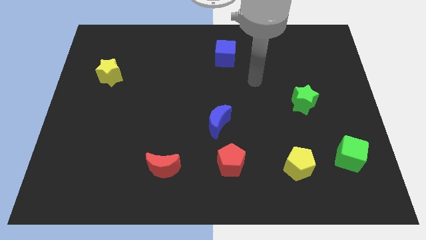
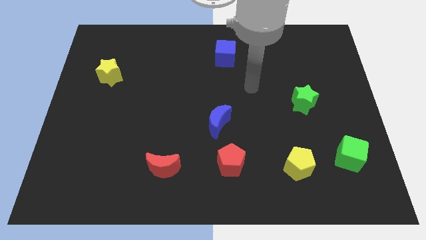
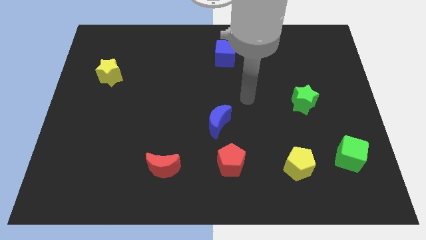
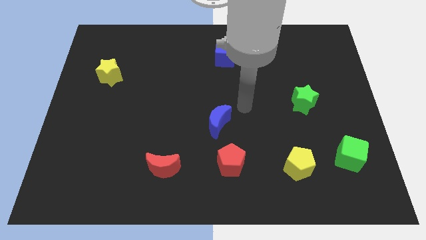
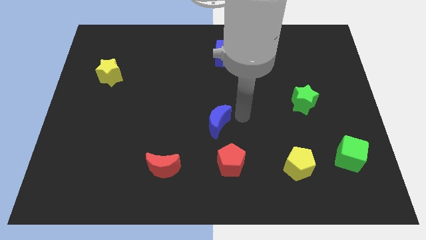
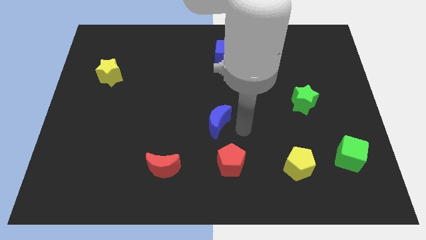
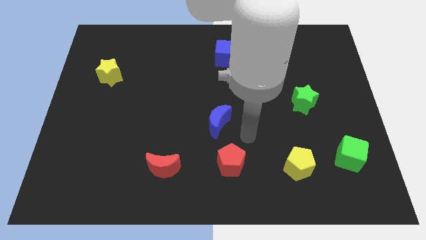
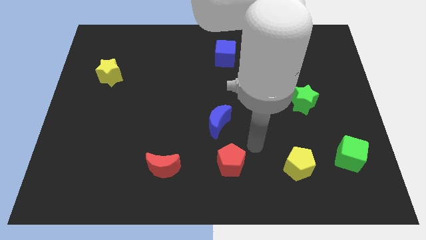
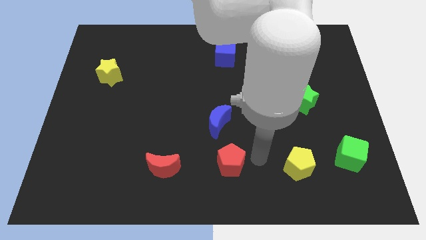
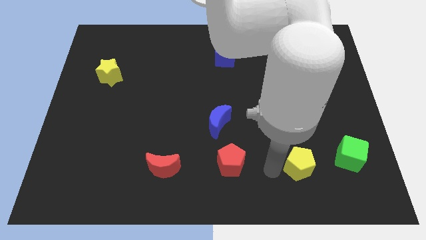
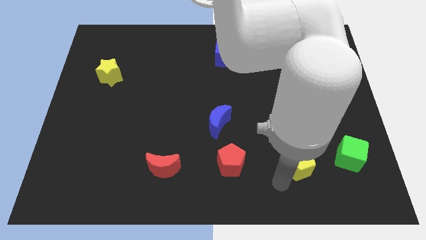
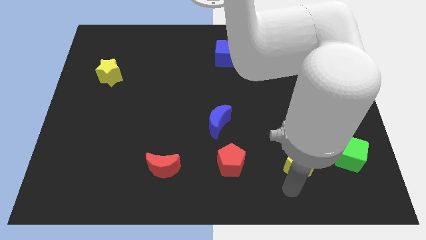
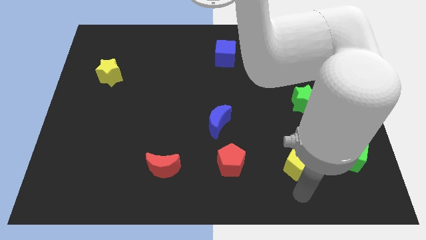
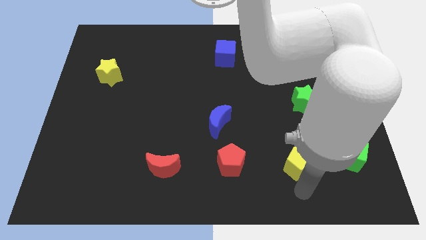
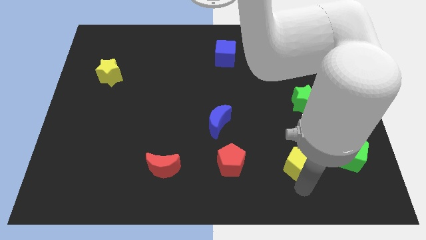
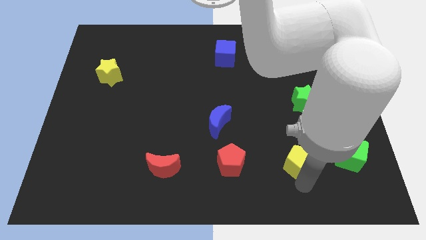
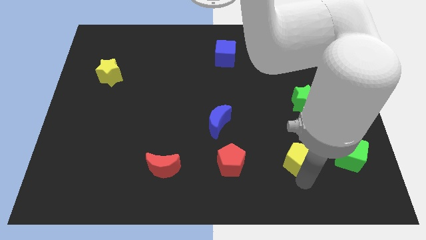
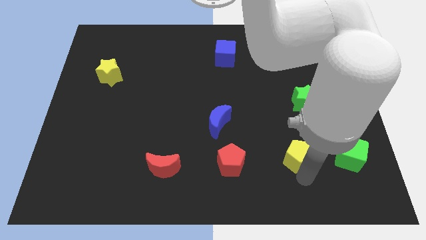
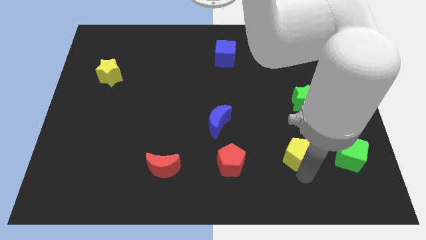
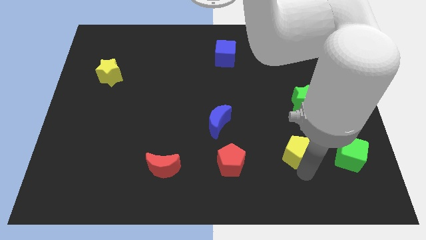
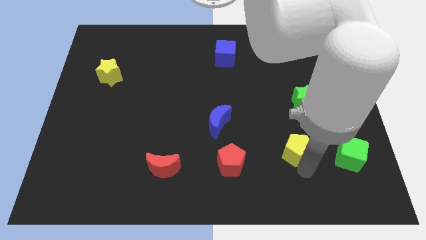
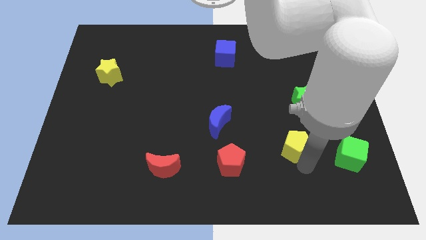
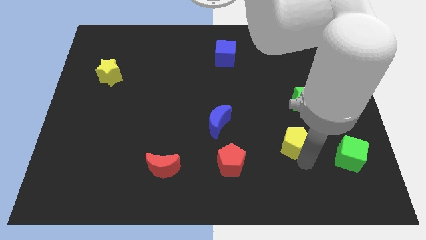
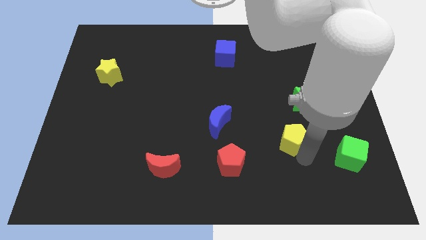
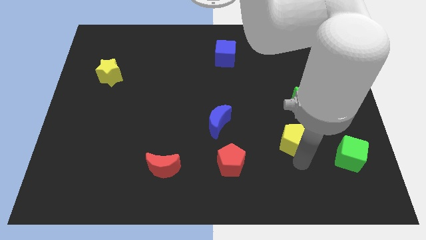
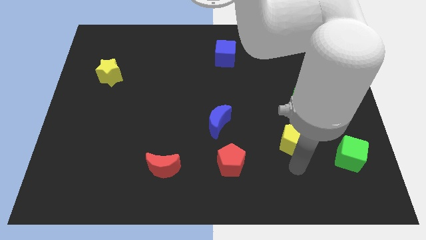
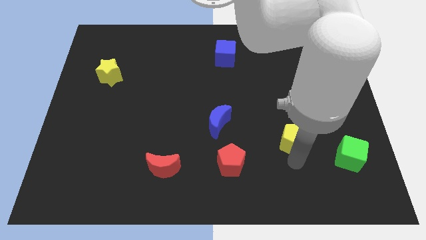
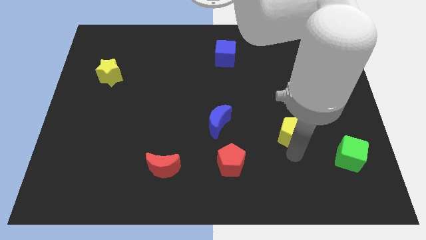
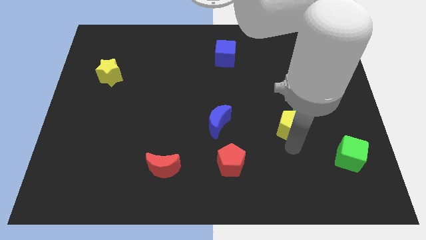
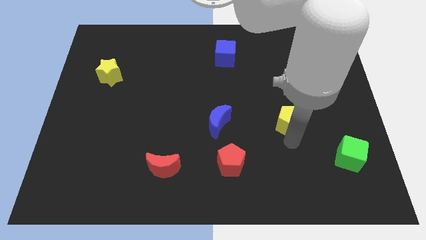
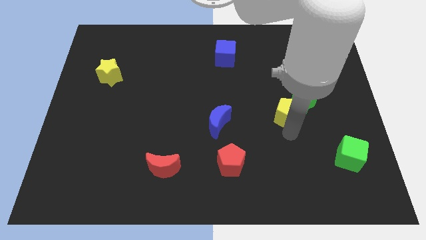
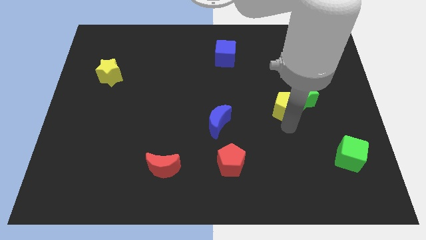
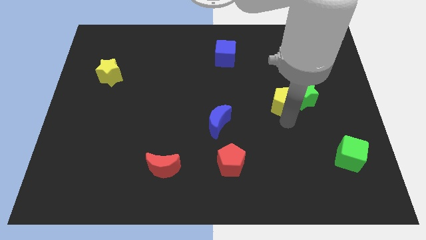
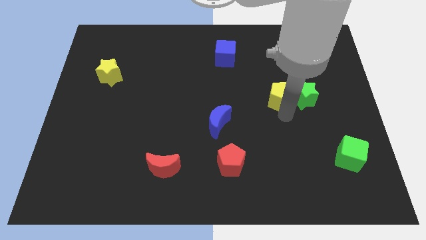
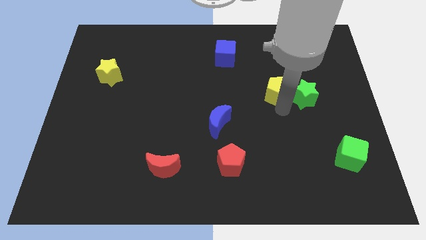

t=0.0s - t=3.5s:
slide the yellow pentagon upwards

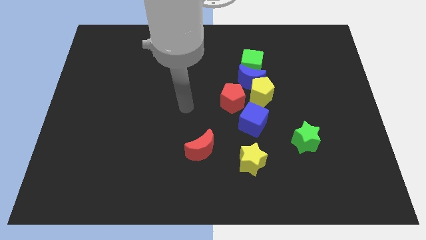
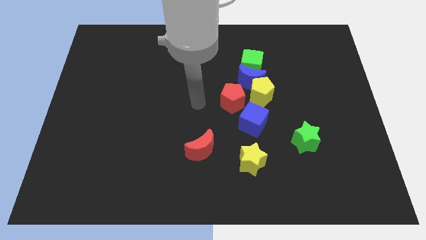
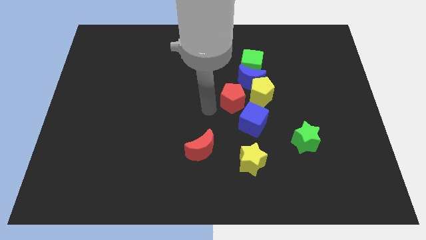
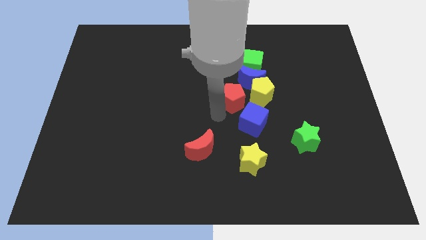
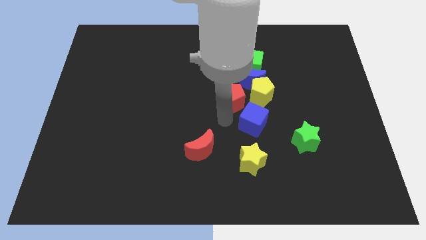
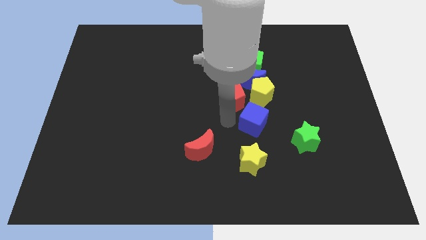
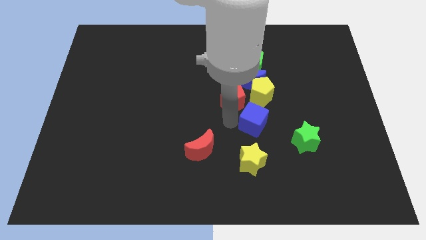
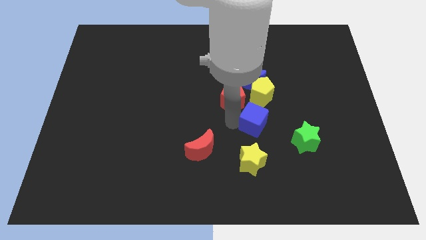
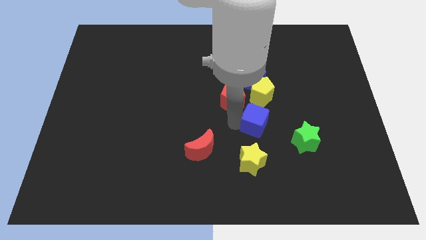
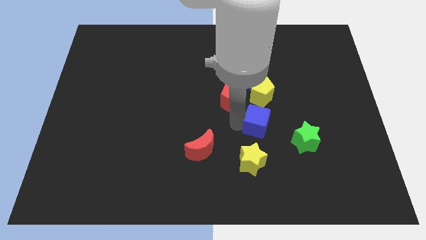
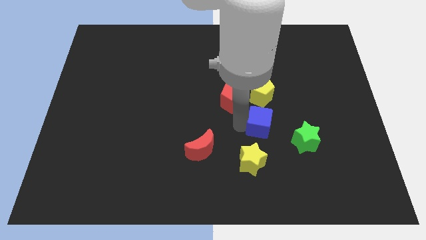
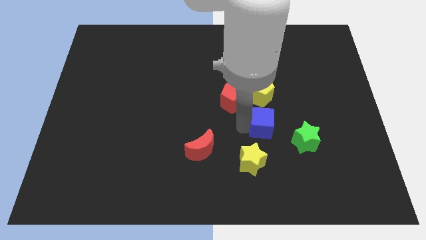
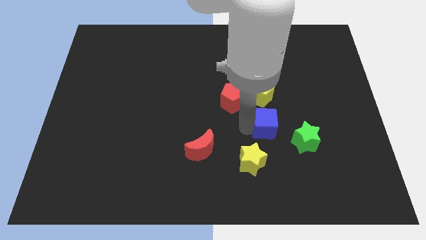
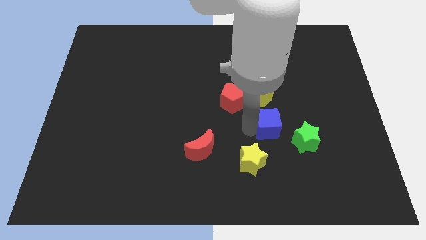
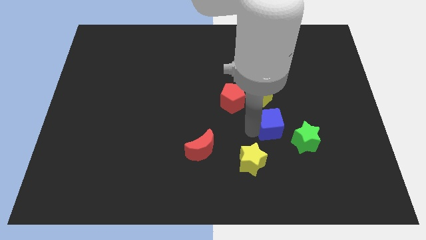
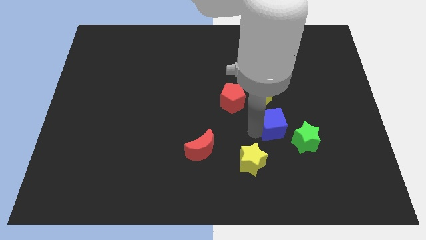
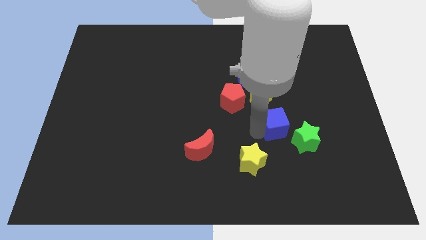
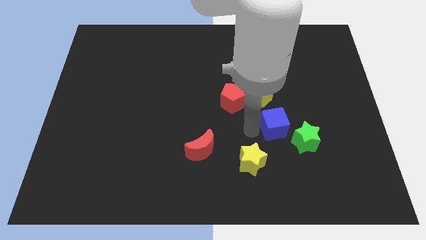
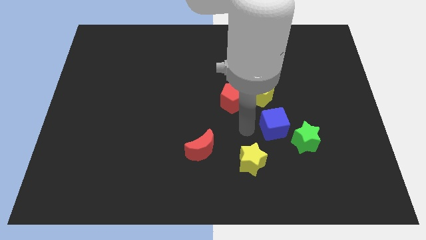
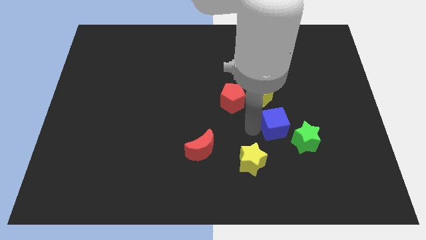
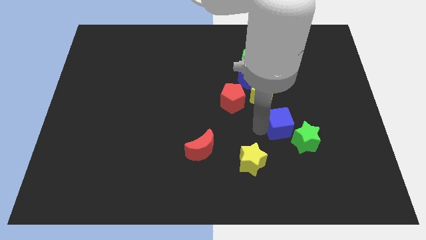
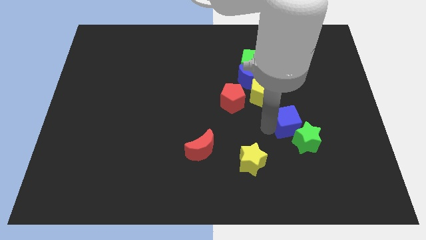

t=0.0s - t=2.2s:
slide the blue cube right a bit

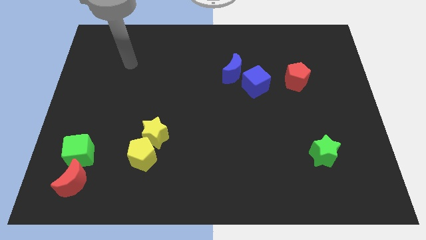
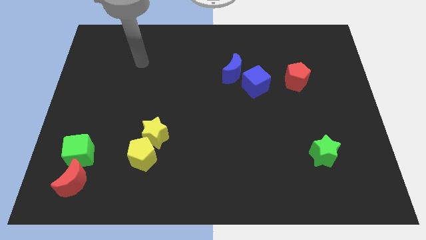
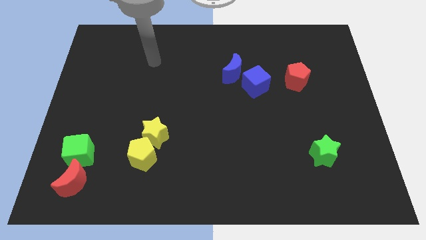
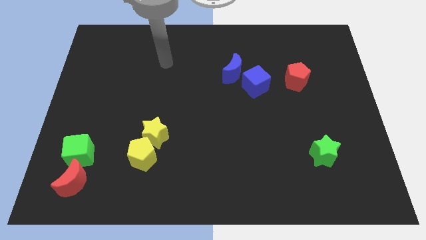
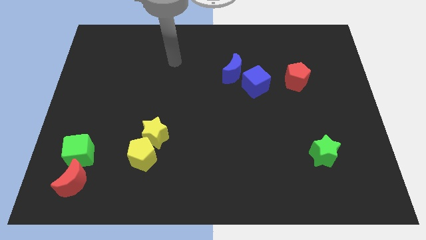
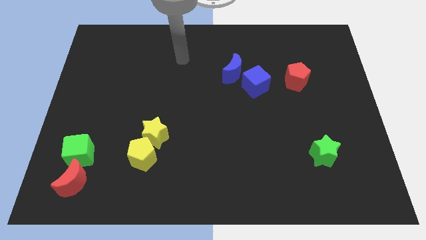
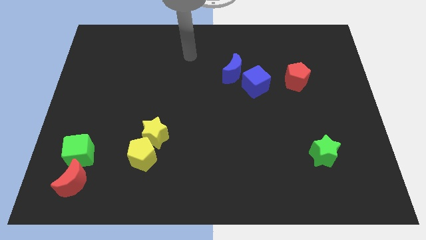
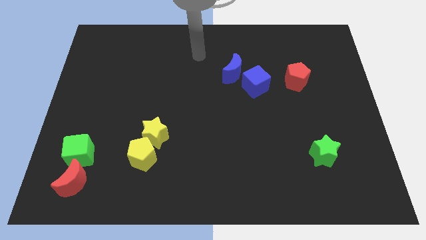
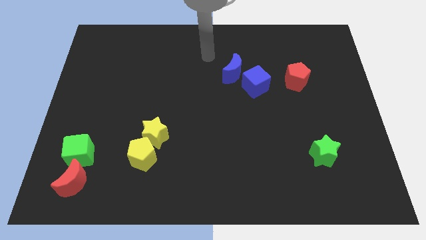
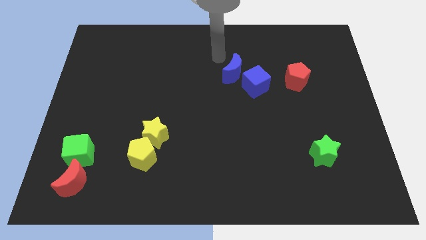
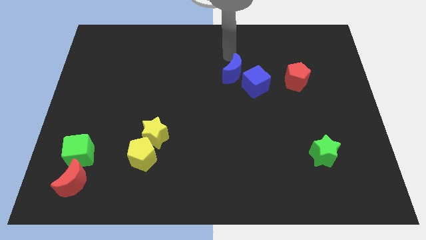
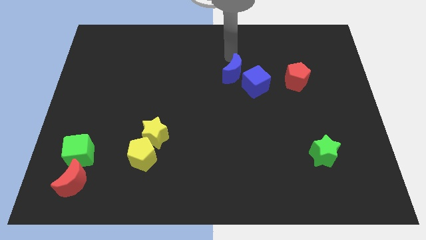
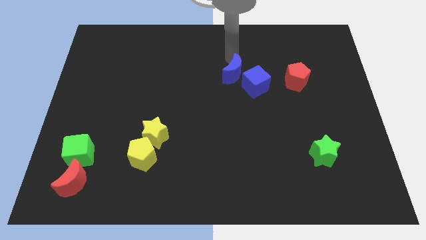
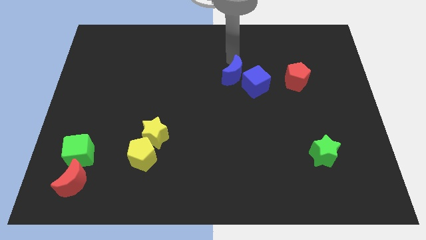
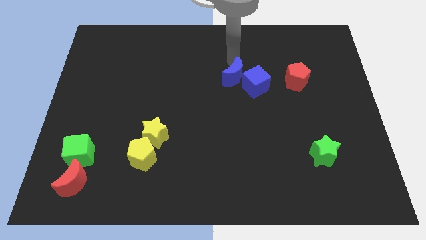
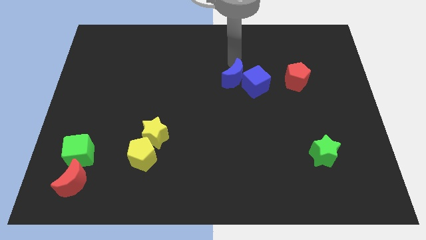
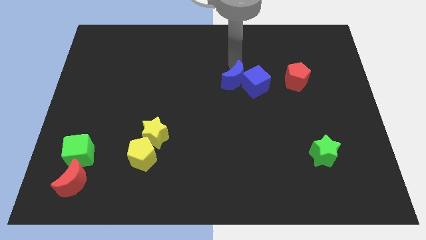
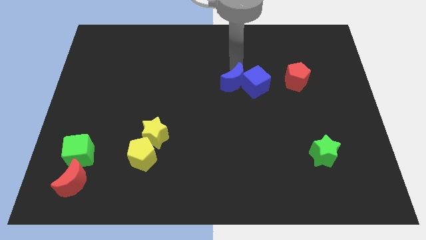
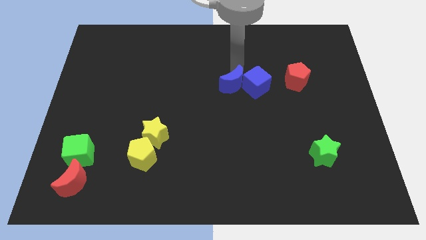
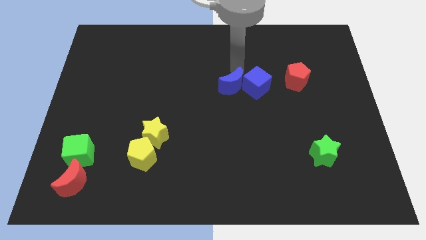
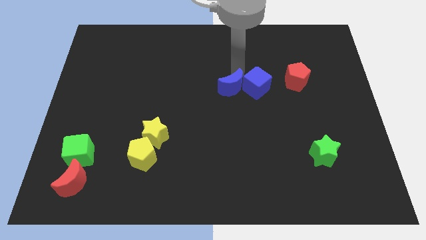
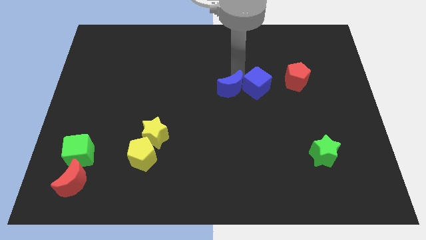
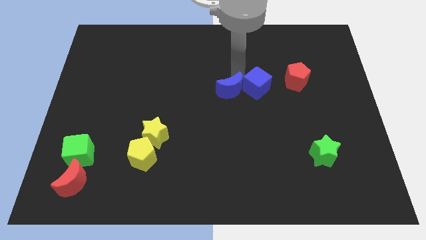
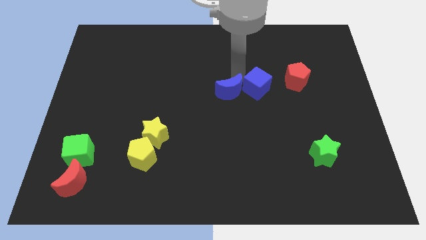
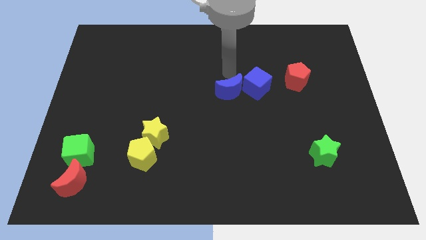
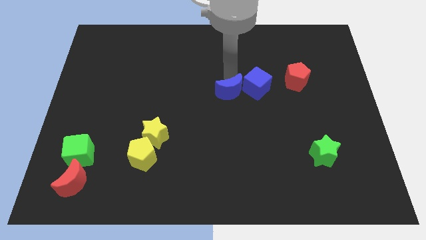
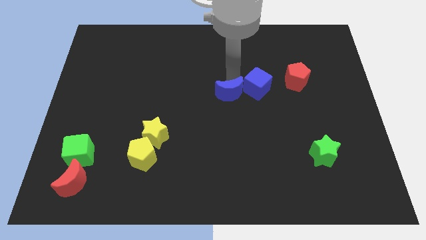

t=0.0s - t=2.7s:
slightly move the blue moon down
